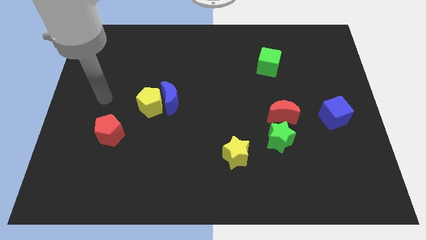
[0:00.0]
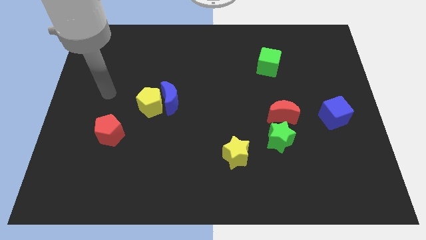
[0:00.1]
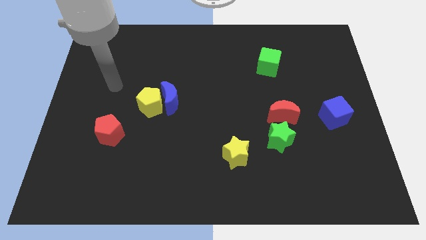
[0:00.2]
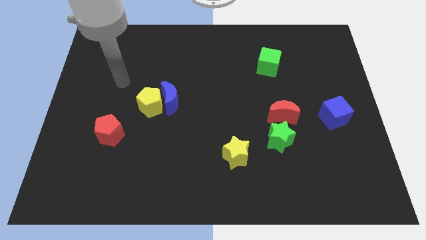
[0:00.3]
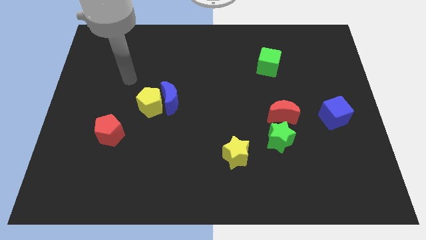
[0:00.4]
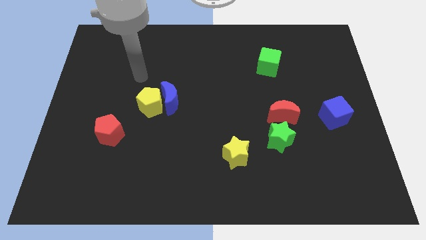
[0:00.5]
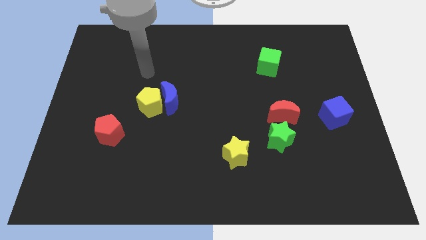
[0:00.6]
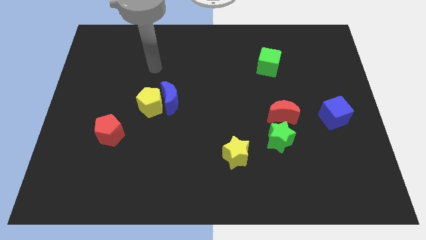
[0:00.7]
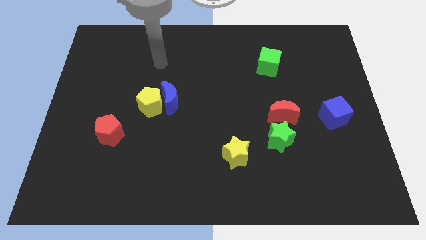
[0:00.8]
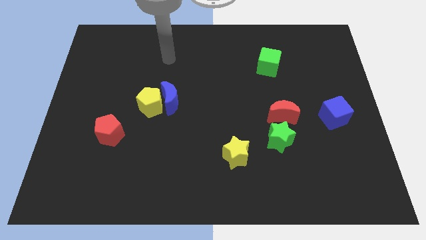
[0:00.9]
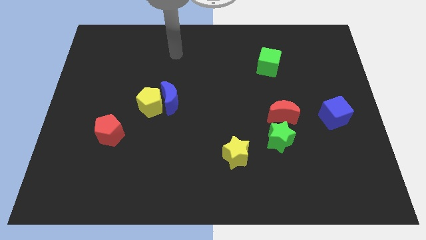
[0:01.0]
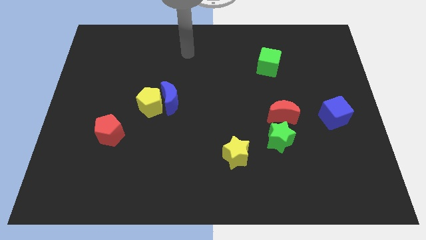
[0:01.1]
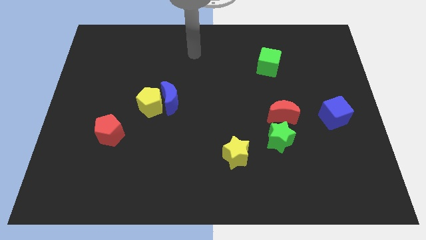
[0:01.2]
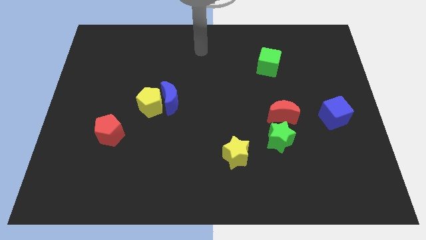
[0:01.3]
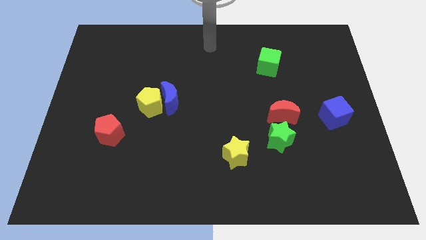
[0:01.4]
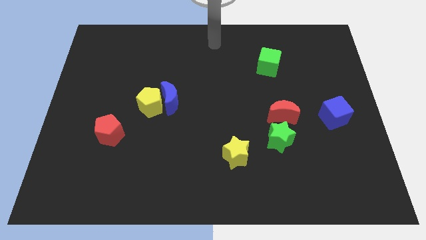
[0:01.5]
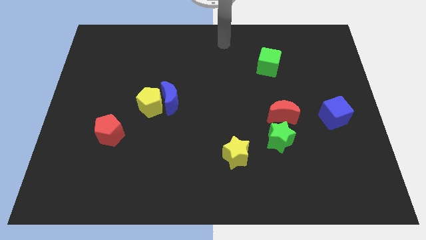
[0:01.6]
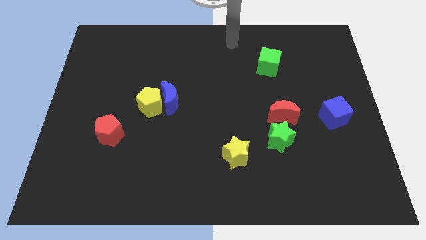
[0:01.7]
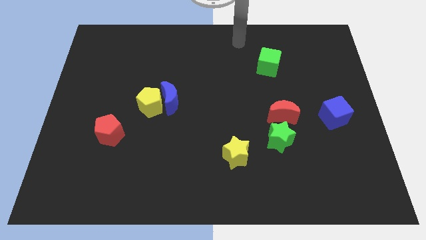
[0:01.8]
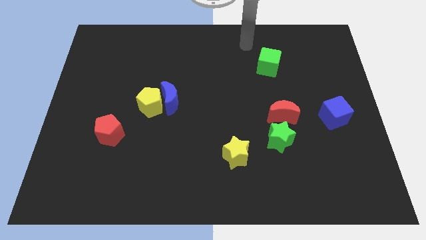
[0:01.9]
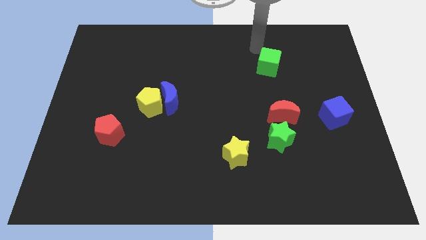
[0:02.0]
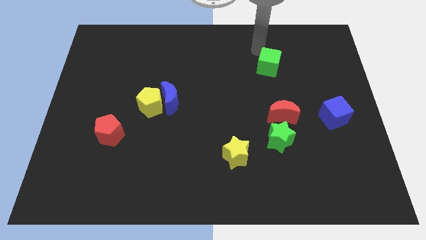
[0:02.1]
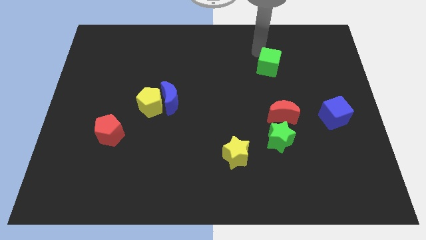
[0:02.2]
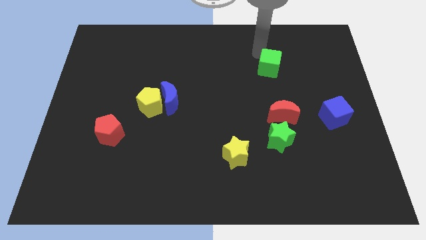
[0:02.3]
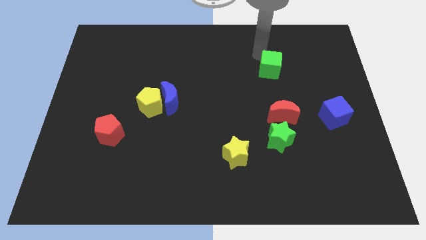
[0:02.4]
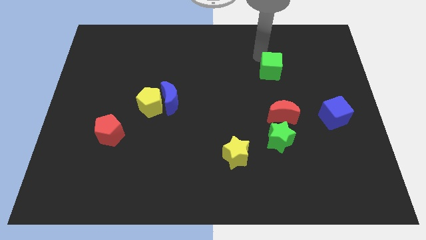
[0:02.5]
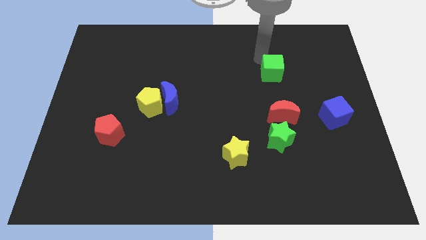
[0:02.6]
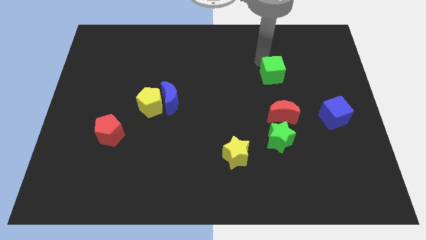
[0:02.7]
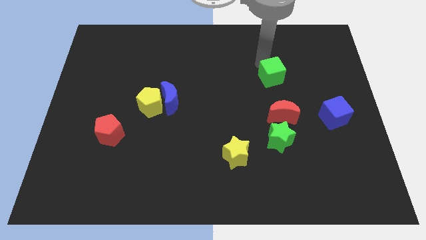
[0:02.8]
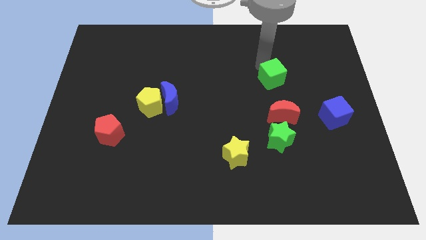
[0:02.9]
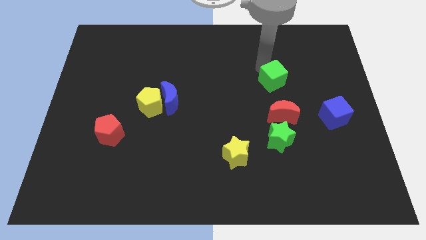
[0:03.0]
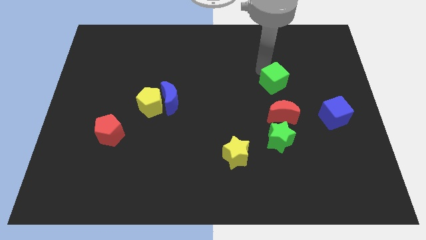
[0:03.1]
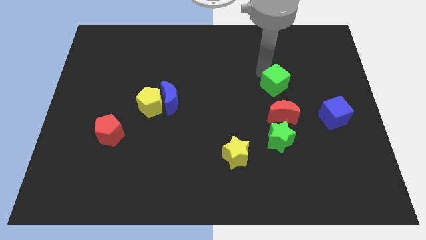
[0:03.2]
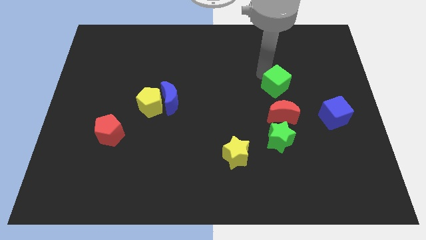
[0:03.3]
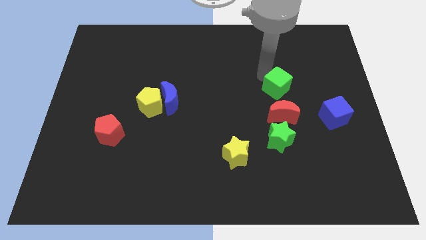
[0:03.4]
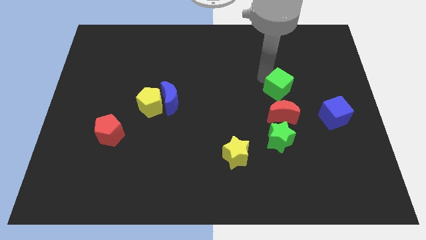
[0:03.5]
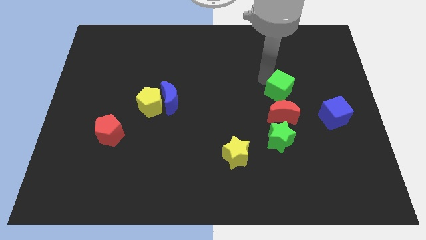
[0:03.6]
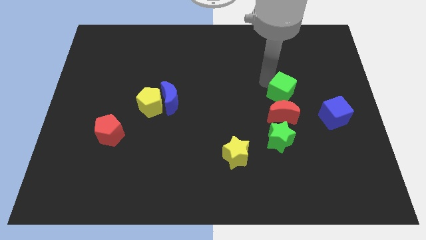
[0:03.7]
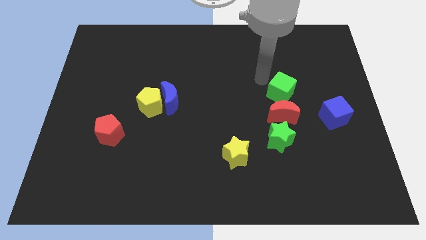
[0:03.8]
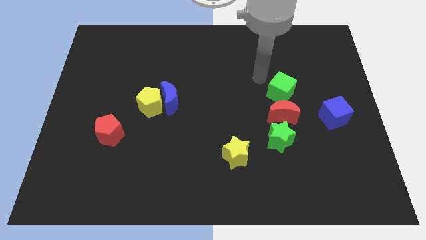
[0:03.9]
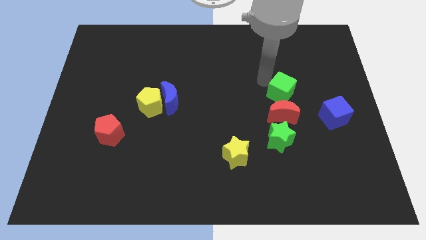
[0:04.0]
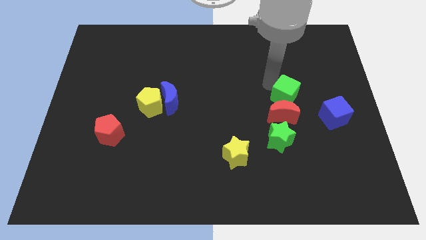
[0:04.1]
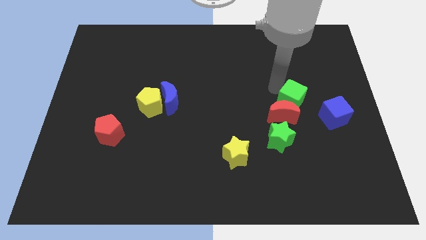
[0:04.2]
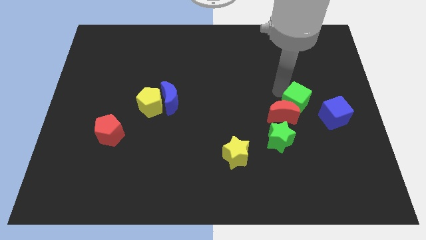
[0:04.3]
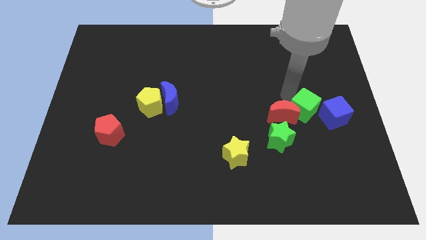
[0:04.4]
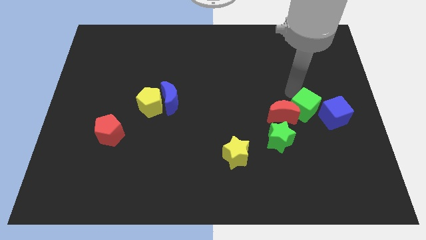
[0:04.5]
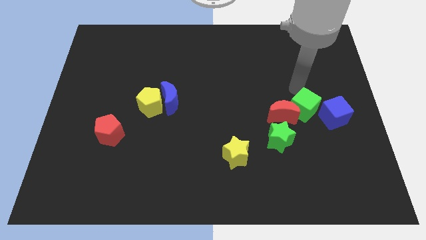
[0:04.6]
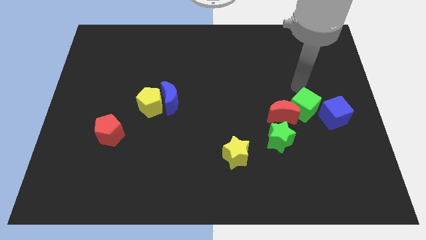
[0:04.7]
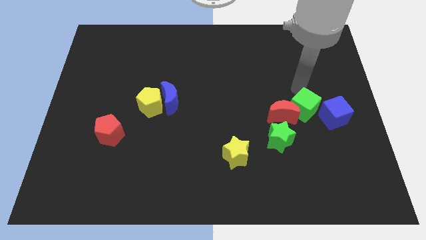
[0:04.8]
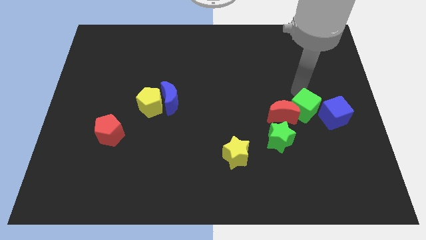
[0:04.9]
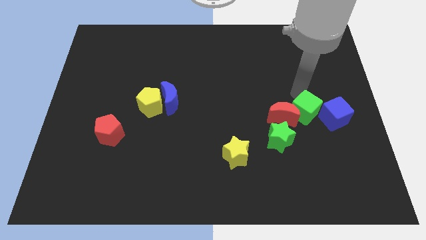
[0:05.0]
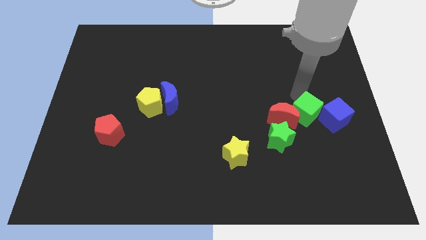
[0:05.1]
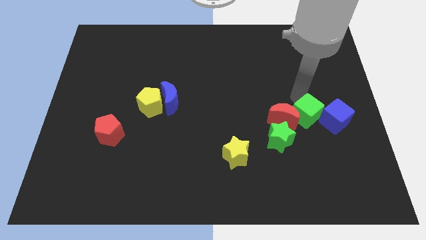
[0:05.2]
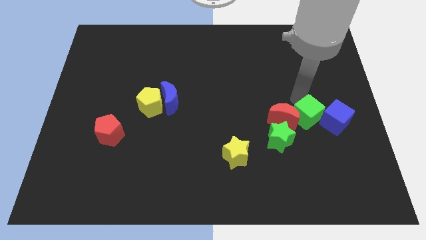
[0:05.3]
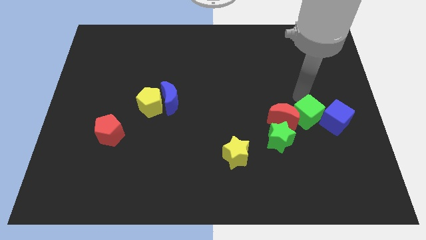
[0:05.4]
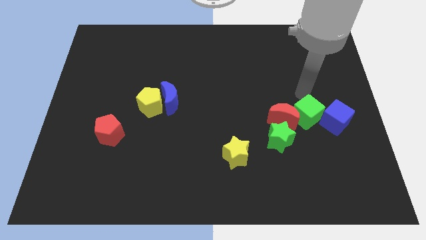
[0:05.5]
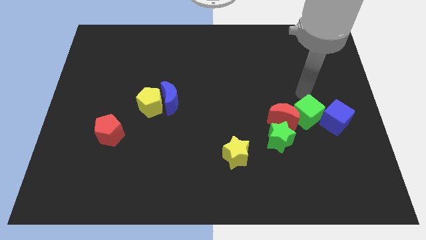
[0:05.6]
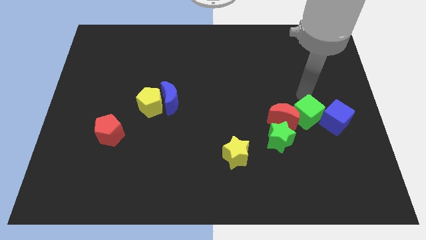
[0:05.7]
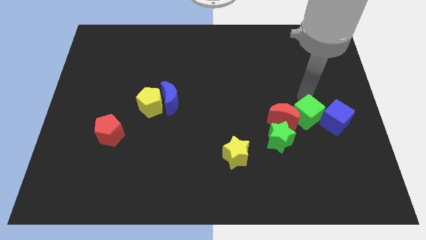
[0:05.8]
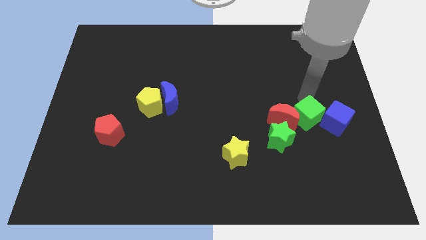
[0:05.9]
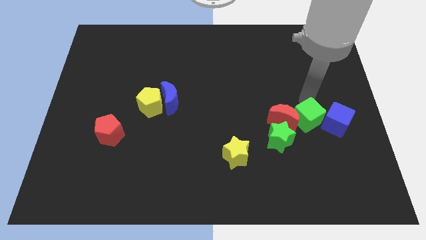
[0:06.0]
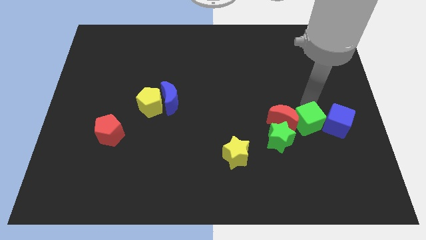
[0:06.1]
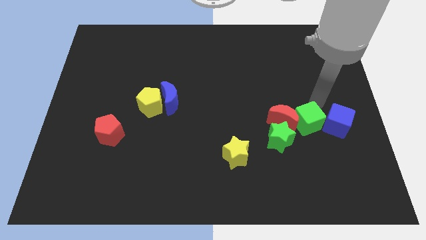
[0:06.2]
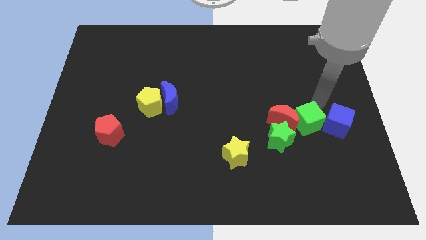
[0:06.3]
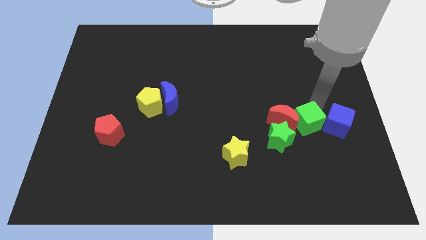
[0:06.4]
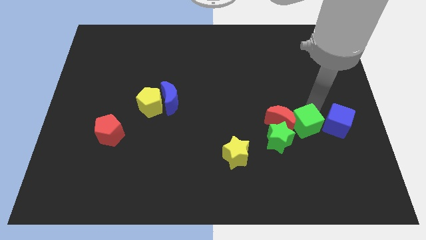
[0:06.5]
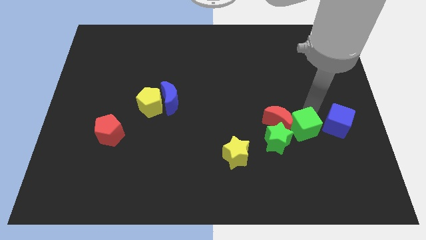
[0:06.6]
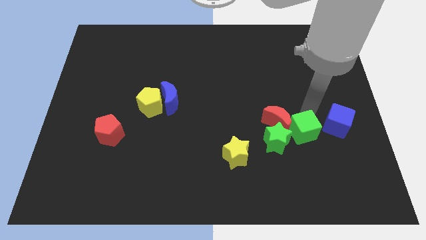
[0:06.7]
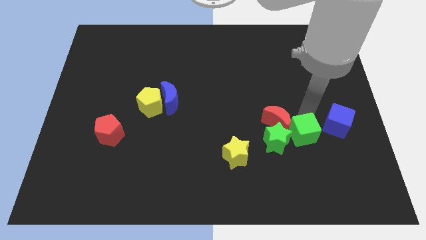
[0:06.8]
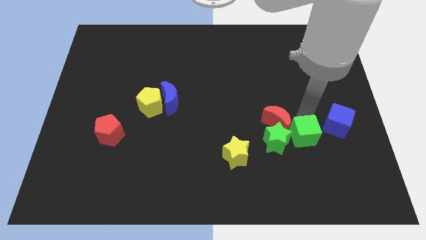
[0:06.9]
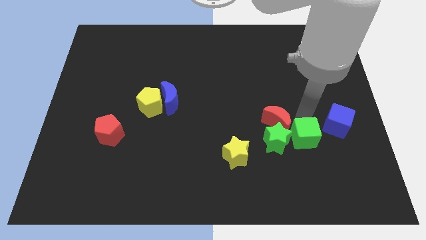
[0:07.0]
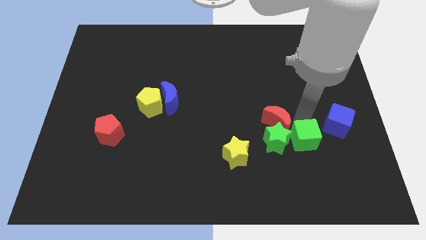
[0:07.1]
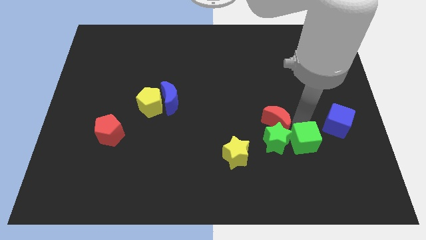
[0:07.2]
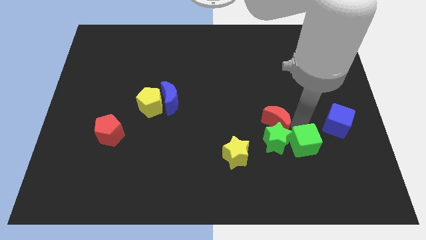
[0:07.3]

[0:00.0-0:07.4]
push the green cube to the right of the yellow star
